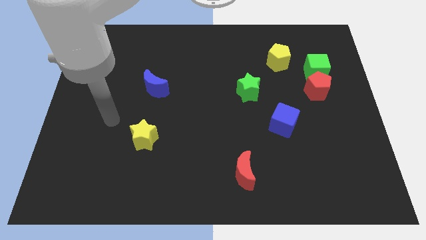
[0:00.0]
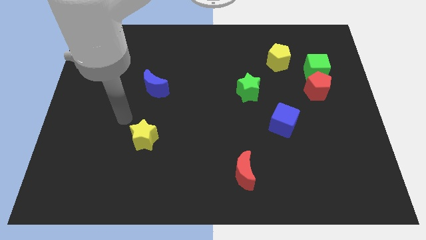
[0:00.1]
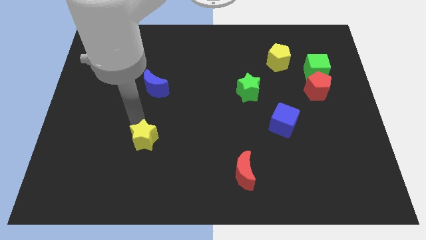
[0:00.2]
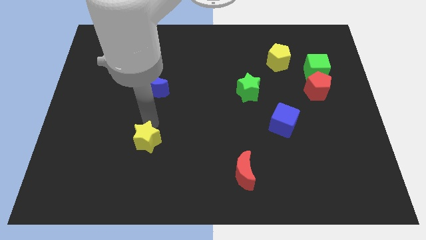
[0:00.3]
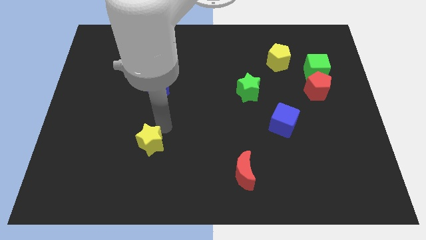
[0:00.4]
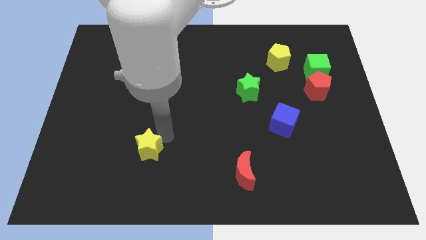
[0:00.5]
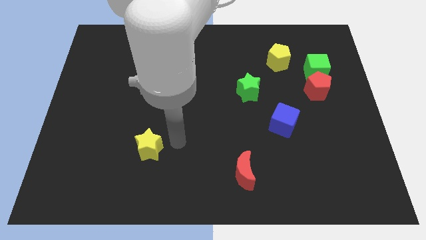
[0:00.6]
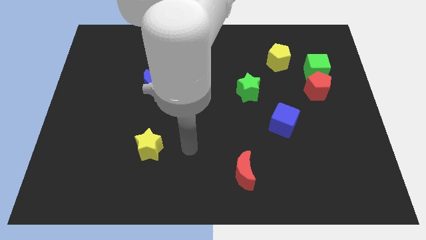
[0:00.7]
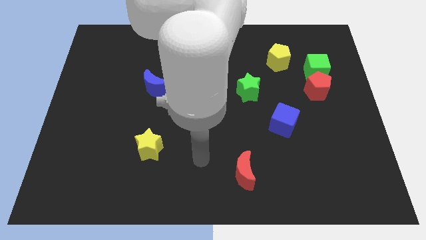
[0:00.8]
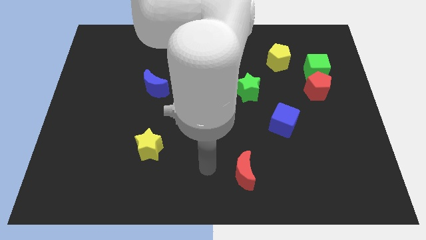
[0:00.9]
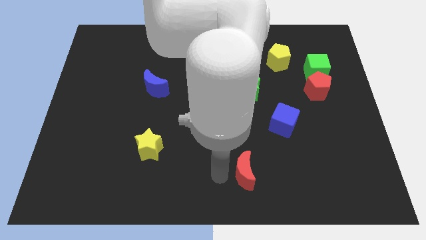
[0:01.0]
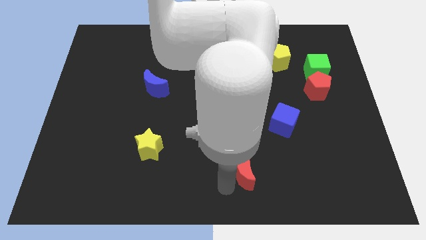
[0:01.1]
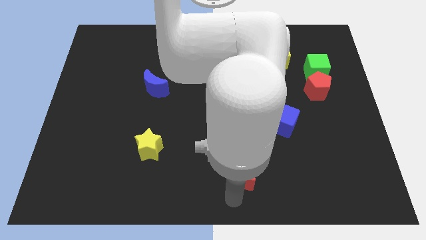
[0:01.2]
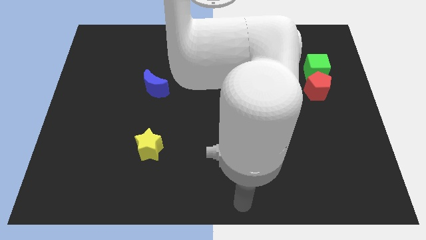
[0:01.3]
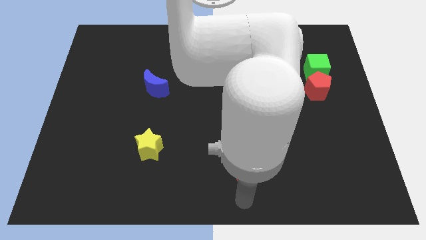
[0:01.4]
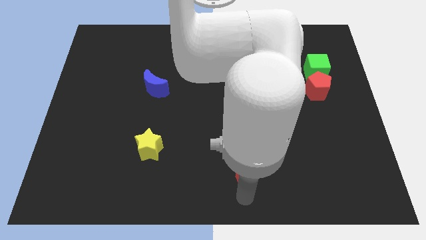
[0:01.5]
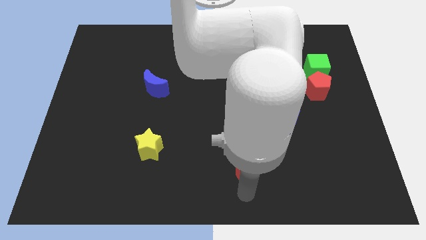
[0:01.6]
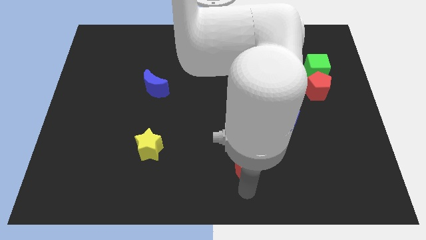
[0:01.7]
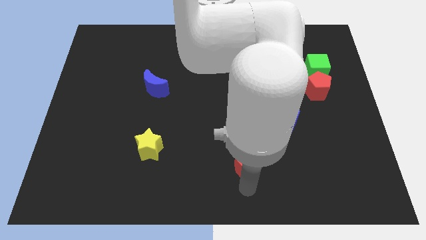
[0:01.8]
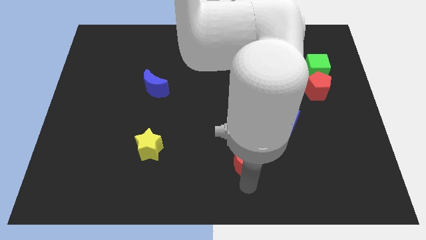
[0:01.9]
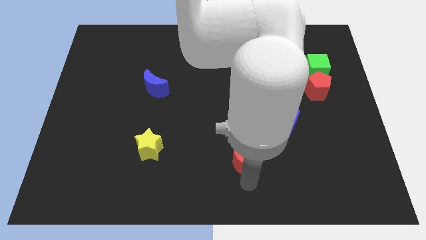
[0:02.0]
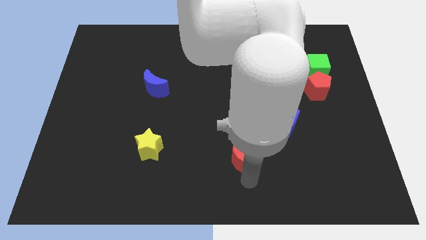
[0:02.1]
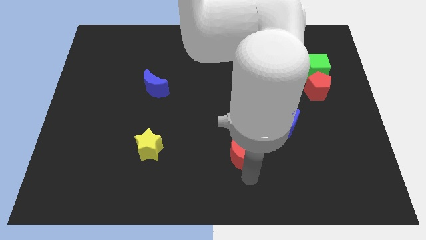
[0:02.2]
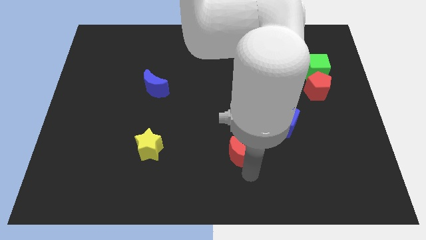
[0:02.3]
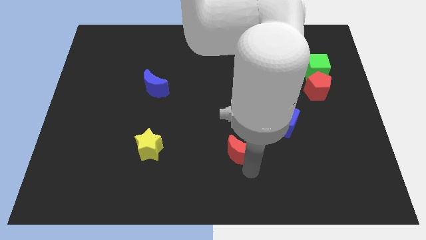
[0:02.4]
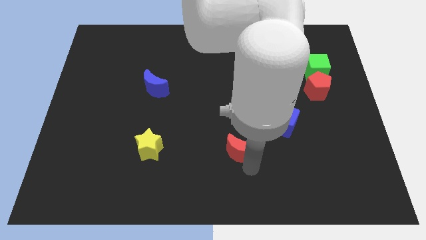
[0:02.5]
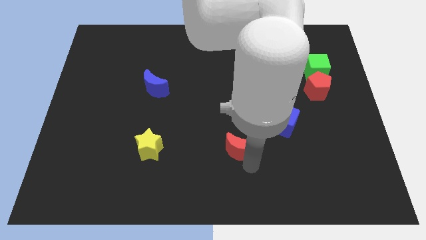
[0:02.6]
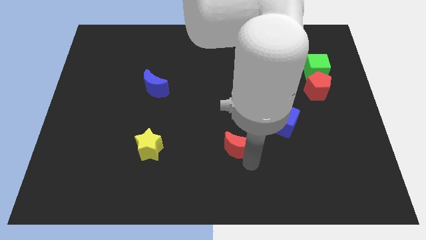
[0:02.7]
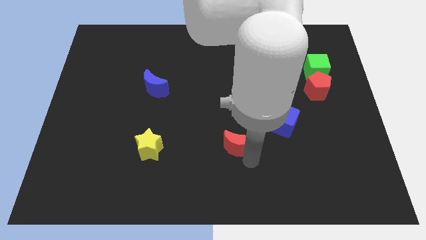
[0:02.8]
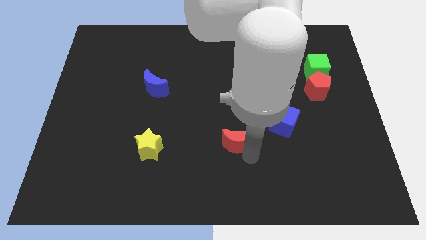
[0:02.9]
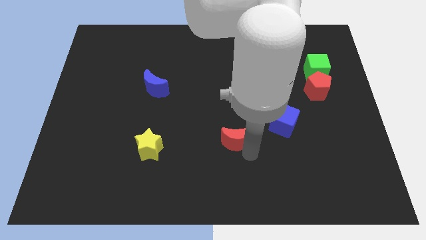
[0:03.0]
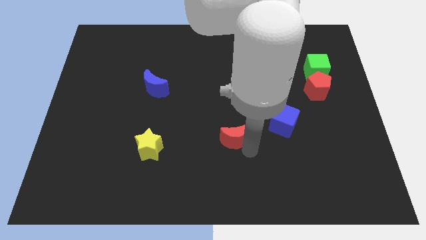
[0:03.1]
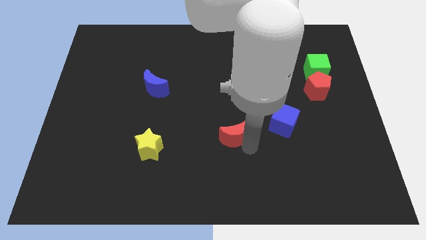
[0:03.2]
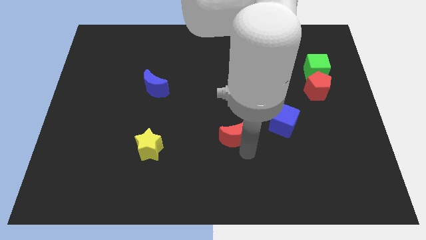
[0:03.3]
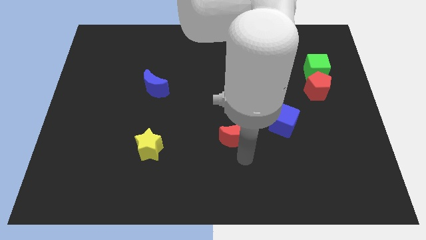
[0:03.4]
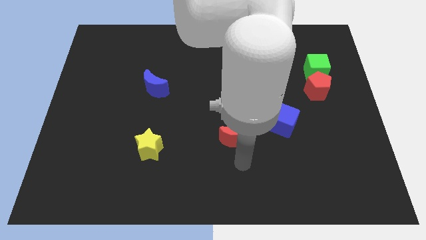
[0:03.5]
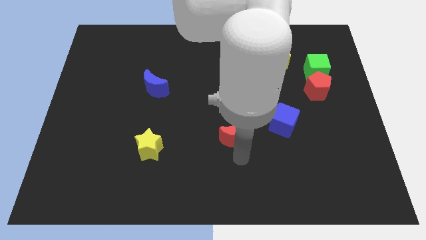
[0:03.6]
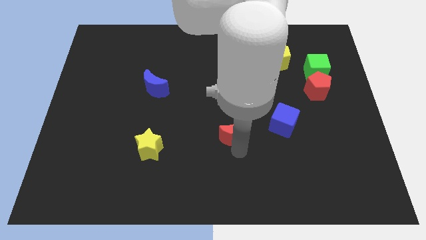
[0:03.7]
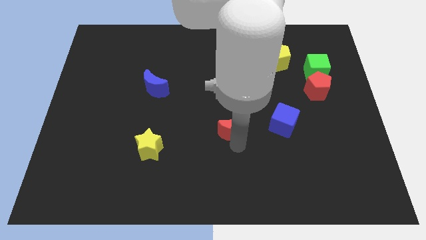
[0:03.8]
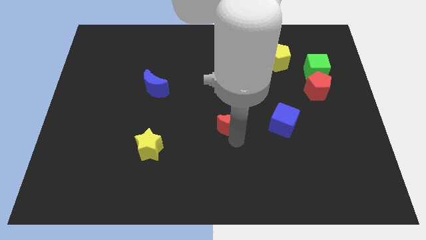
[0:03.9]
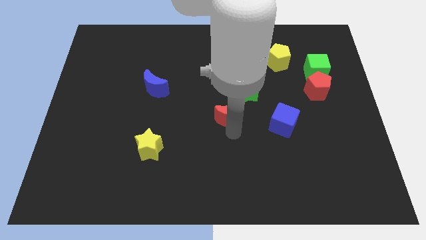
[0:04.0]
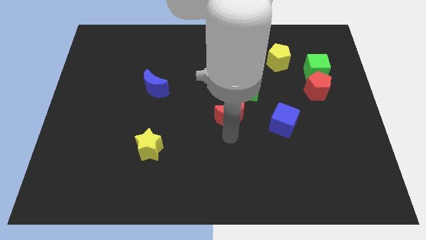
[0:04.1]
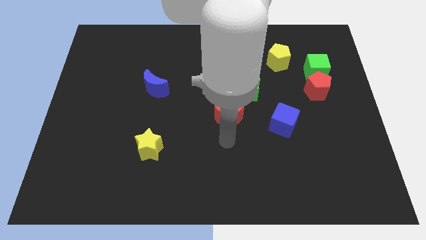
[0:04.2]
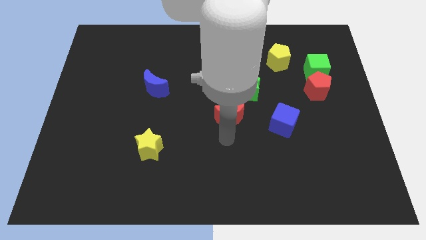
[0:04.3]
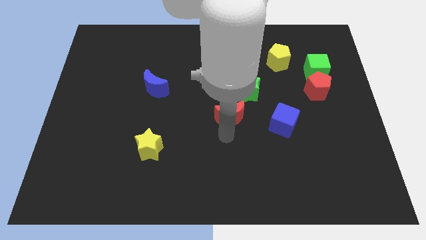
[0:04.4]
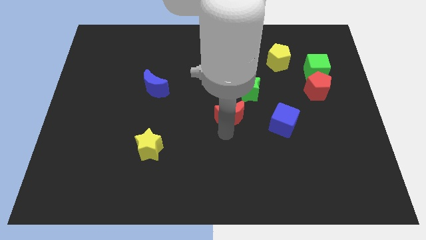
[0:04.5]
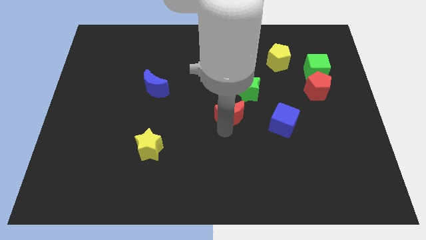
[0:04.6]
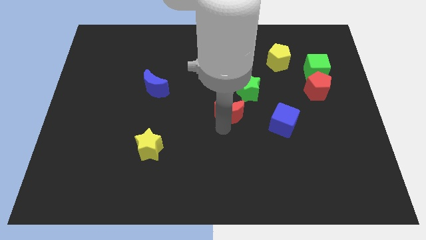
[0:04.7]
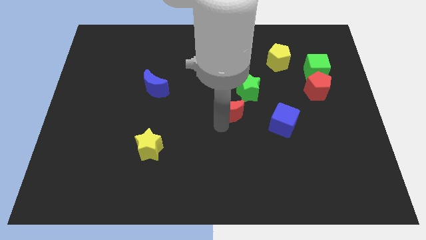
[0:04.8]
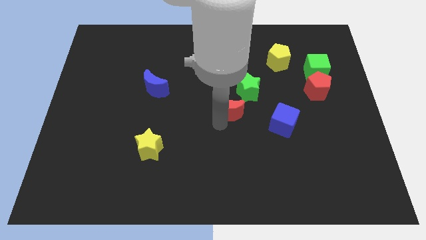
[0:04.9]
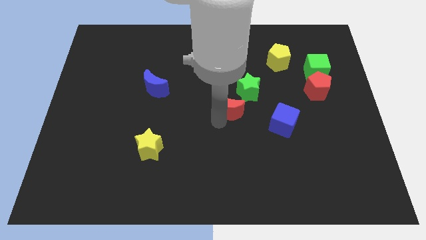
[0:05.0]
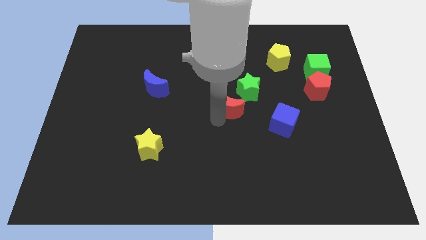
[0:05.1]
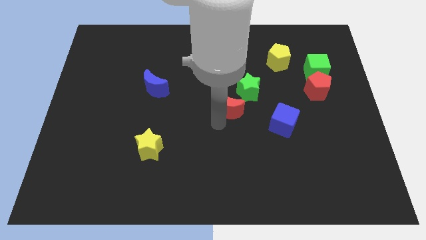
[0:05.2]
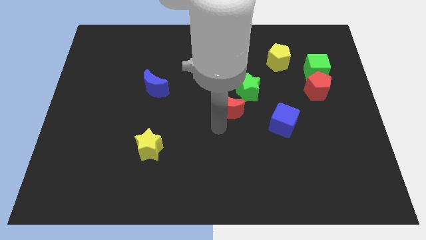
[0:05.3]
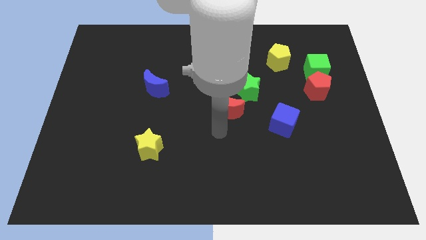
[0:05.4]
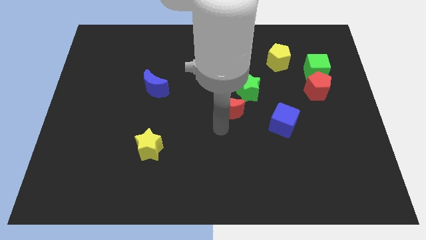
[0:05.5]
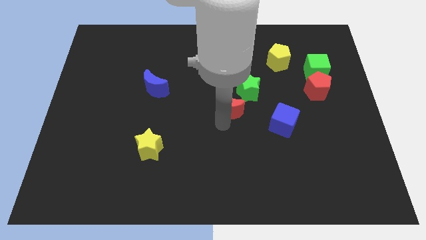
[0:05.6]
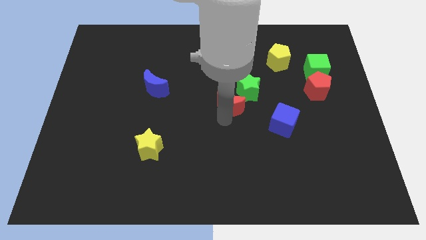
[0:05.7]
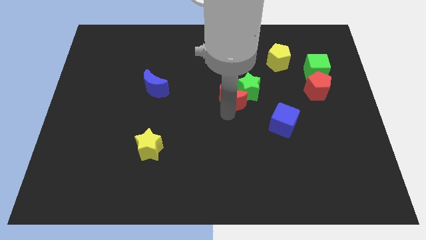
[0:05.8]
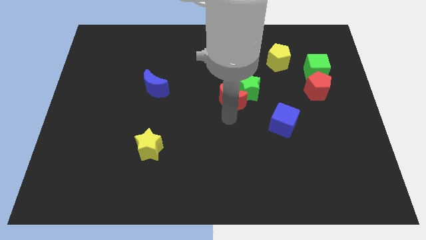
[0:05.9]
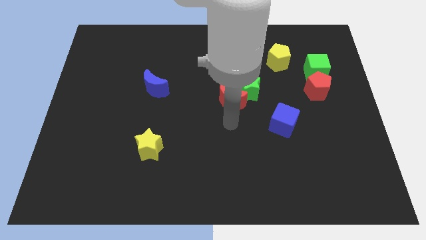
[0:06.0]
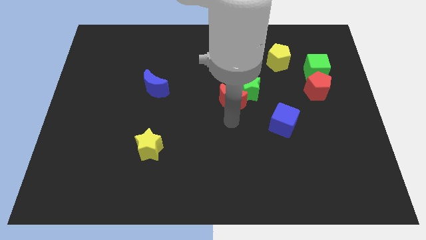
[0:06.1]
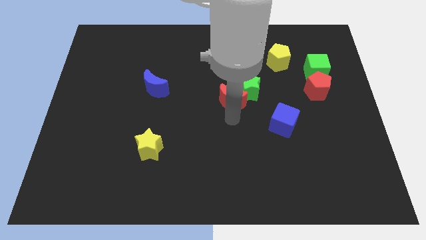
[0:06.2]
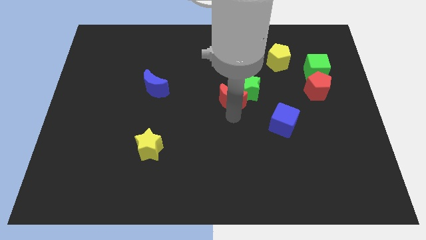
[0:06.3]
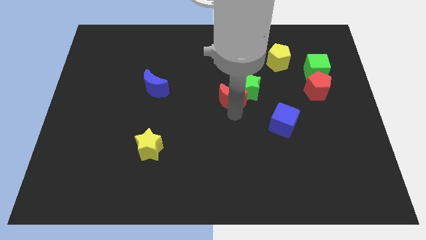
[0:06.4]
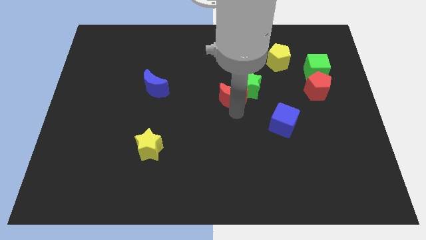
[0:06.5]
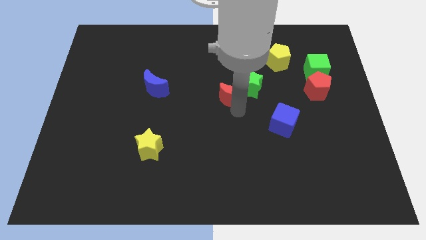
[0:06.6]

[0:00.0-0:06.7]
move the red moon upwards

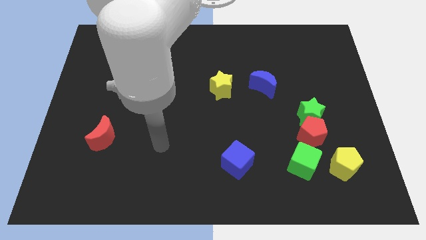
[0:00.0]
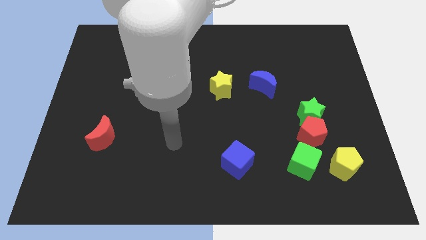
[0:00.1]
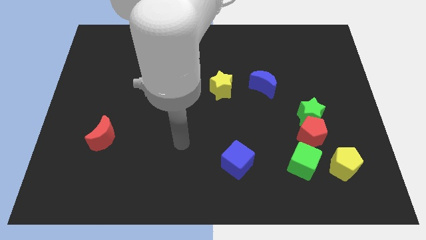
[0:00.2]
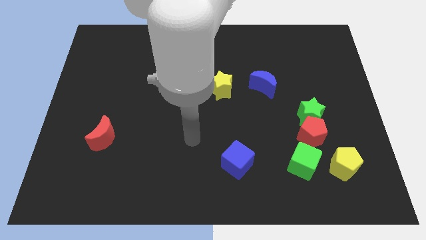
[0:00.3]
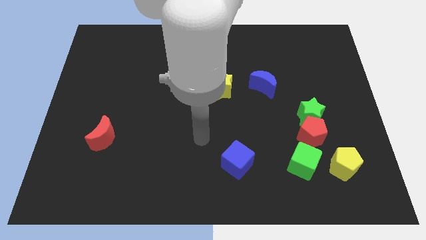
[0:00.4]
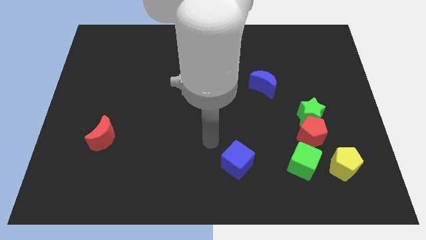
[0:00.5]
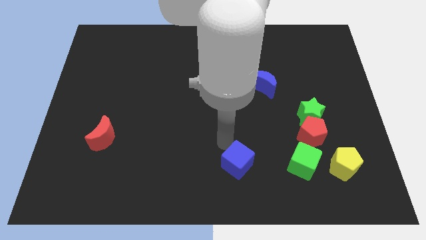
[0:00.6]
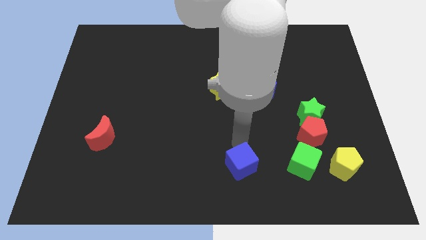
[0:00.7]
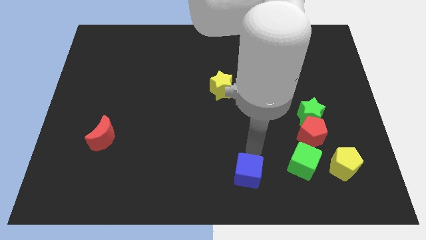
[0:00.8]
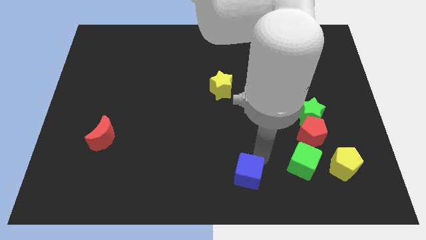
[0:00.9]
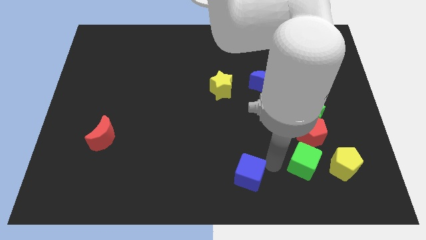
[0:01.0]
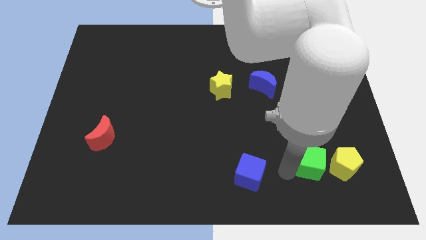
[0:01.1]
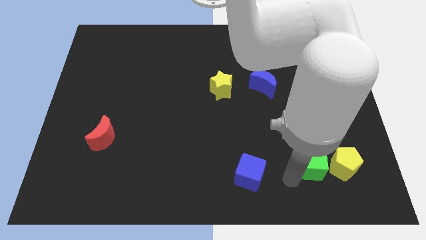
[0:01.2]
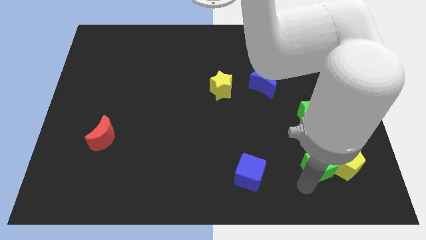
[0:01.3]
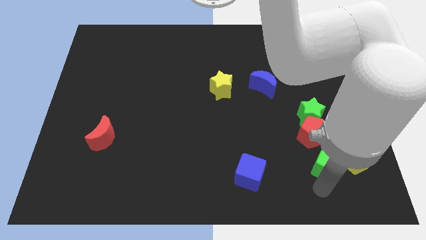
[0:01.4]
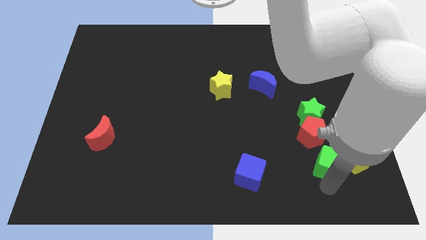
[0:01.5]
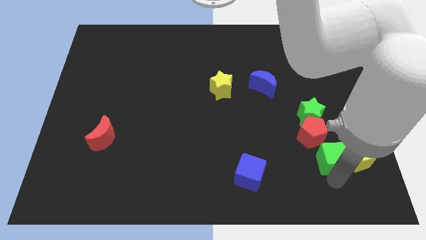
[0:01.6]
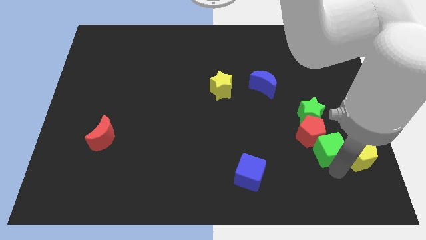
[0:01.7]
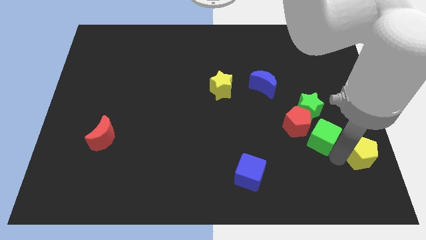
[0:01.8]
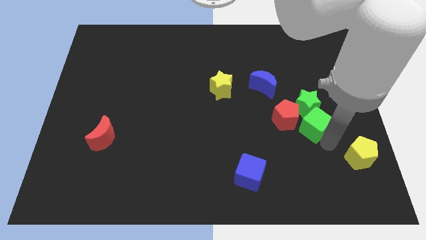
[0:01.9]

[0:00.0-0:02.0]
slide the red pentagon diagonally up and to the left slightly
